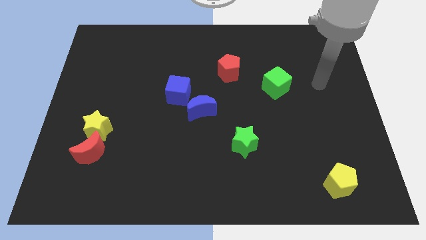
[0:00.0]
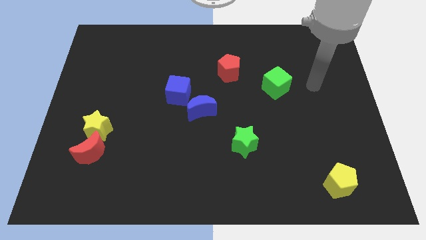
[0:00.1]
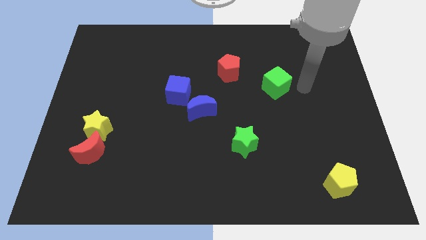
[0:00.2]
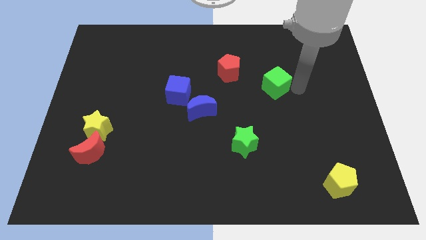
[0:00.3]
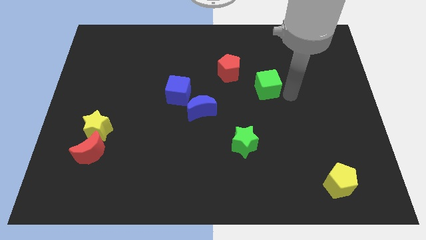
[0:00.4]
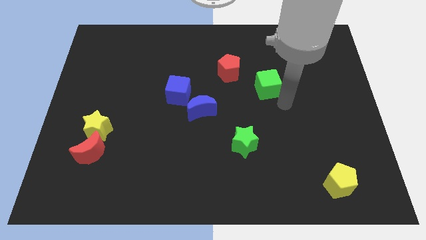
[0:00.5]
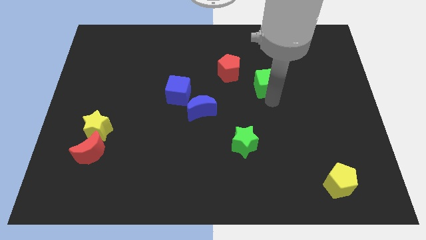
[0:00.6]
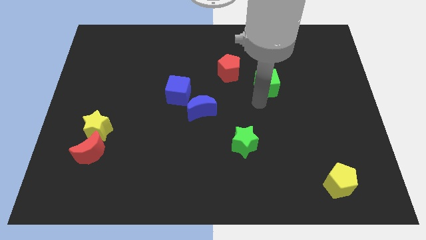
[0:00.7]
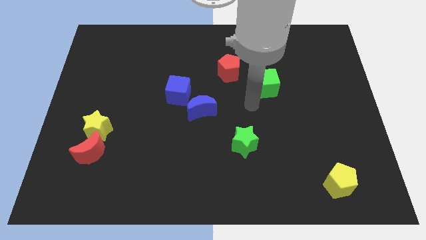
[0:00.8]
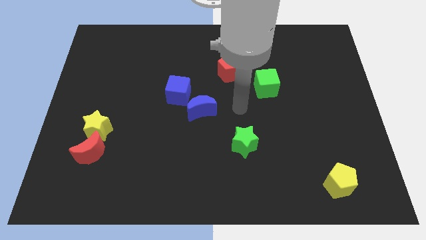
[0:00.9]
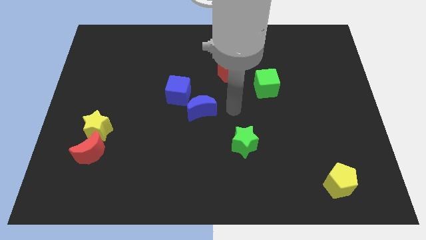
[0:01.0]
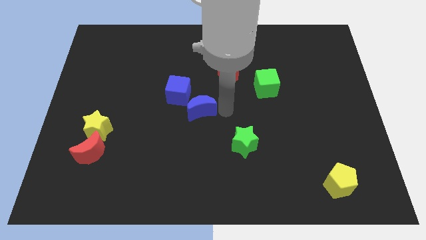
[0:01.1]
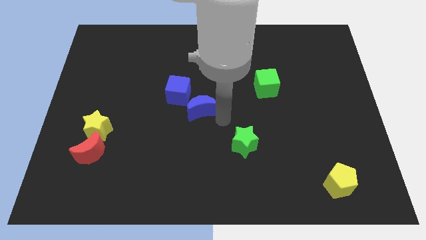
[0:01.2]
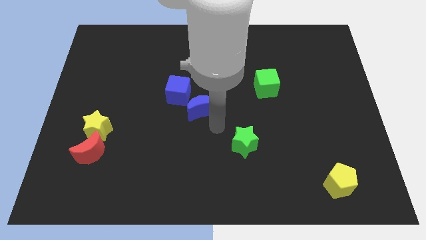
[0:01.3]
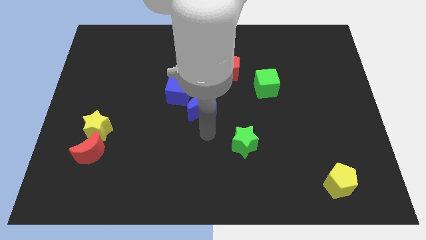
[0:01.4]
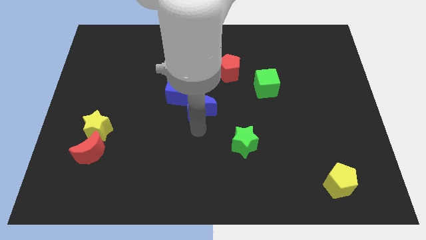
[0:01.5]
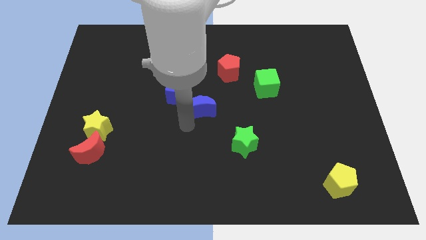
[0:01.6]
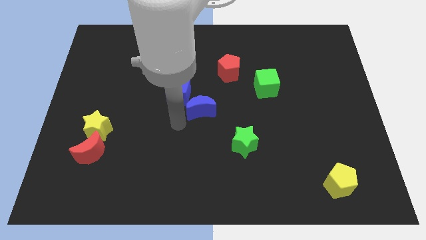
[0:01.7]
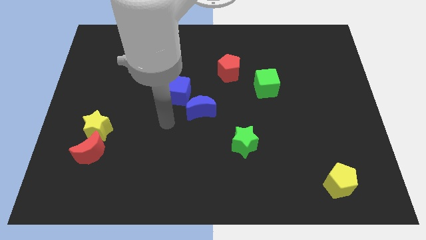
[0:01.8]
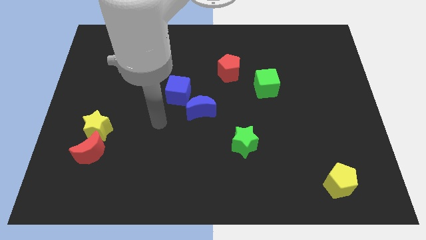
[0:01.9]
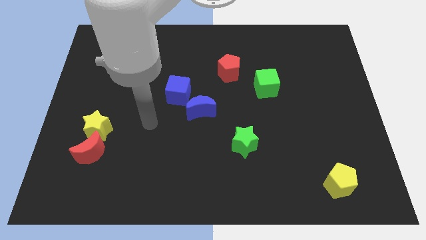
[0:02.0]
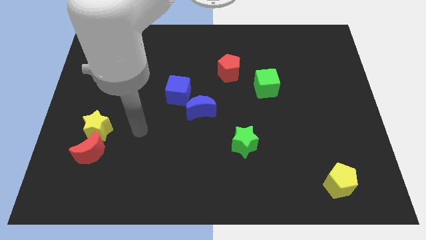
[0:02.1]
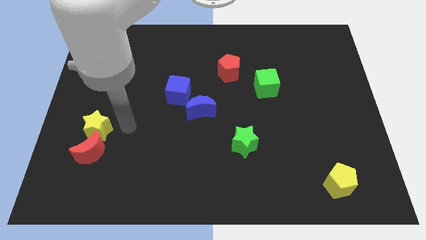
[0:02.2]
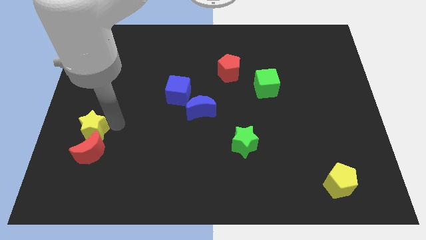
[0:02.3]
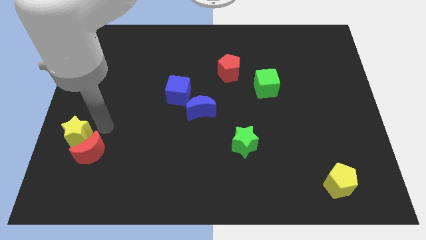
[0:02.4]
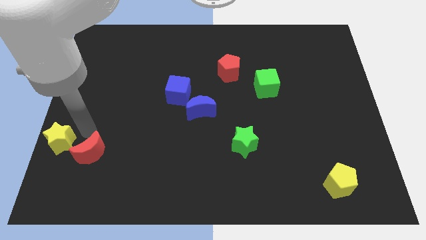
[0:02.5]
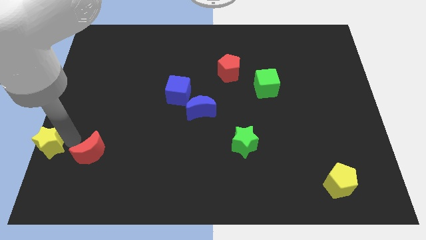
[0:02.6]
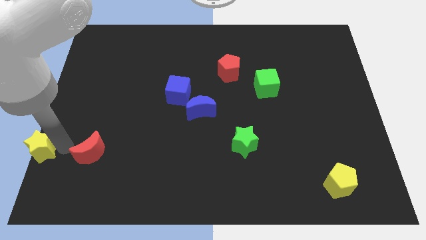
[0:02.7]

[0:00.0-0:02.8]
pull the red moon apart from the yellow star

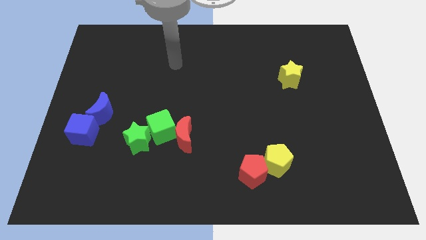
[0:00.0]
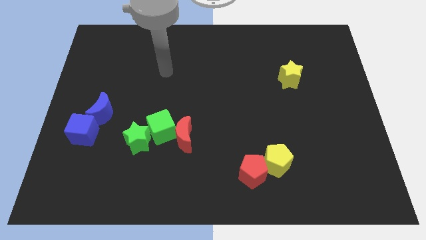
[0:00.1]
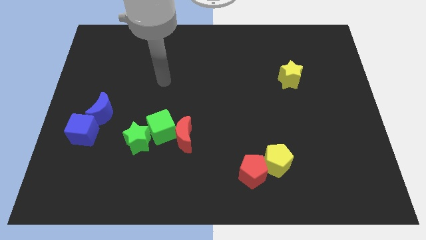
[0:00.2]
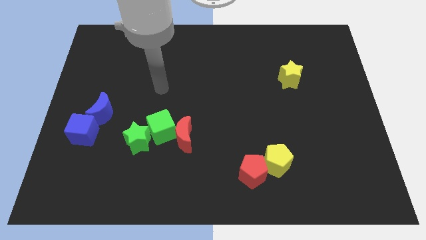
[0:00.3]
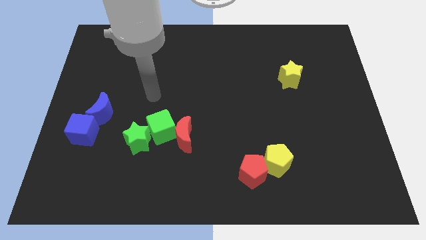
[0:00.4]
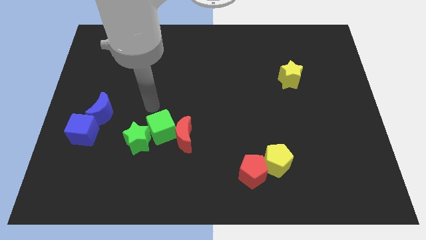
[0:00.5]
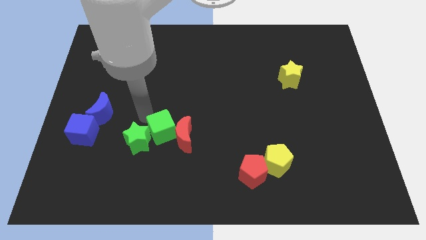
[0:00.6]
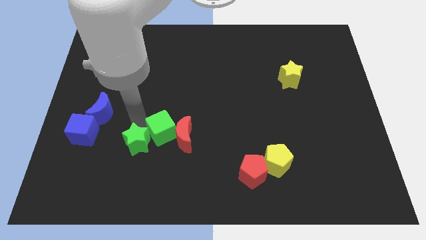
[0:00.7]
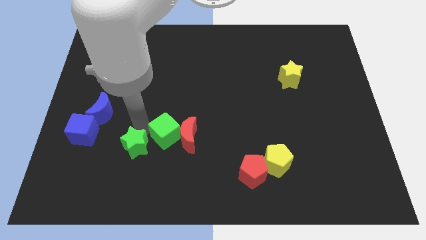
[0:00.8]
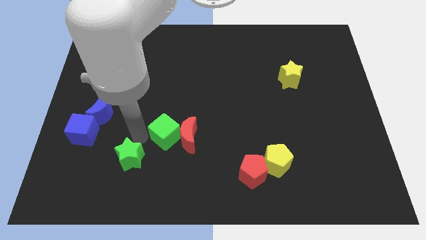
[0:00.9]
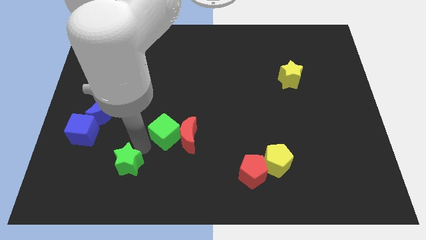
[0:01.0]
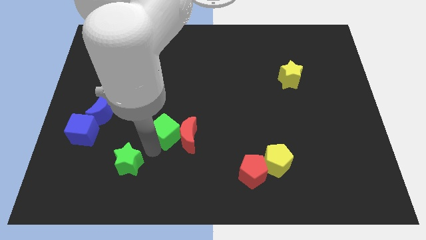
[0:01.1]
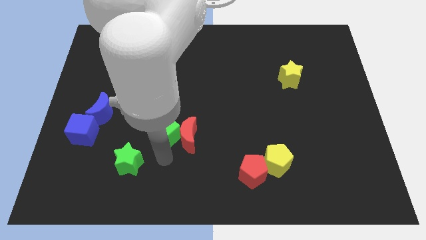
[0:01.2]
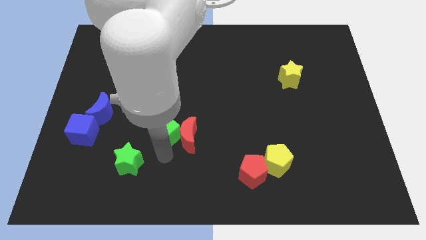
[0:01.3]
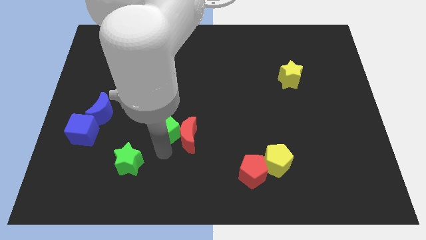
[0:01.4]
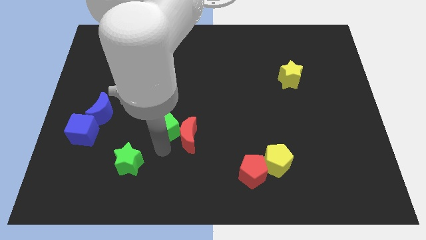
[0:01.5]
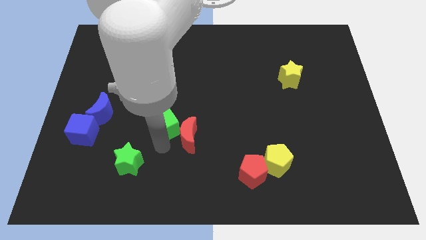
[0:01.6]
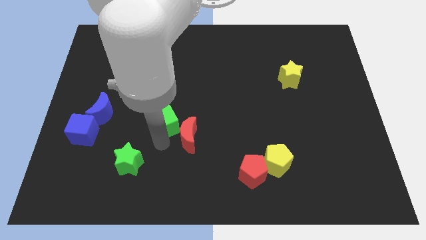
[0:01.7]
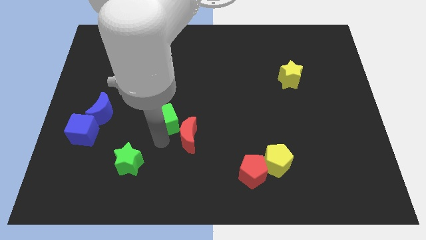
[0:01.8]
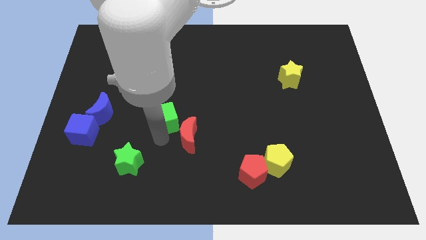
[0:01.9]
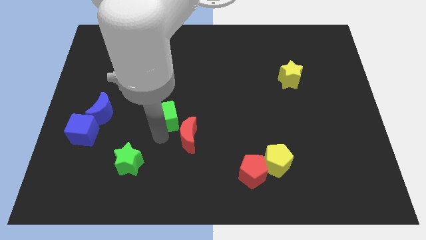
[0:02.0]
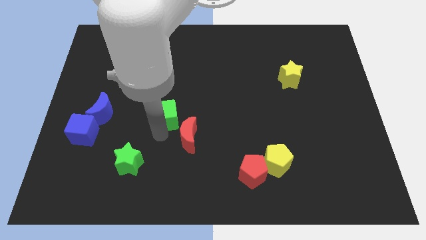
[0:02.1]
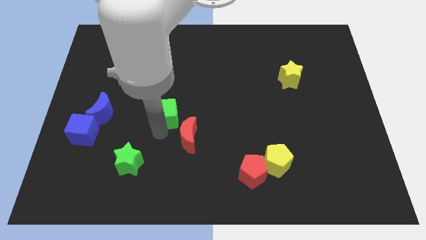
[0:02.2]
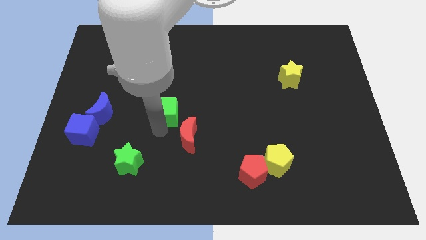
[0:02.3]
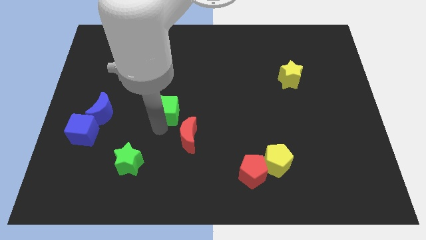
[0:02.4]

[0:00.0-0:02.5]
move the green cube away from the red moon and green star

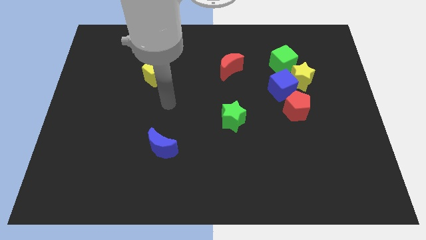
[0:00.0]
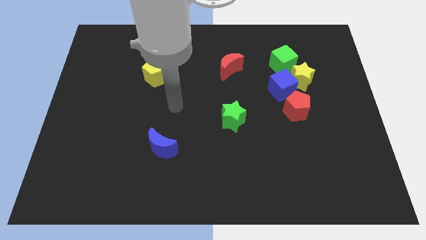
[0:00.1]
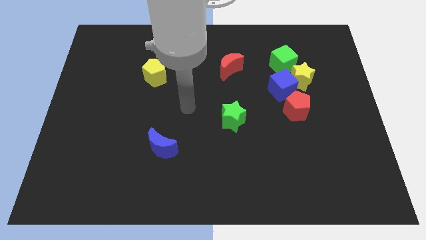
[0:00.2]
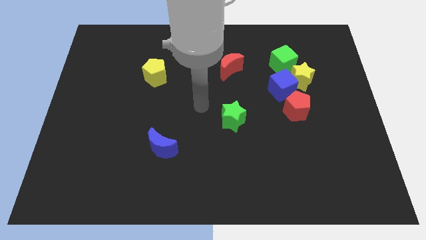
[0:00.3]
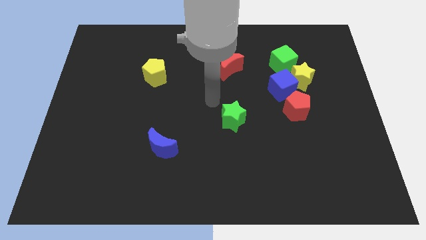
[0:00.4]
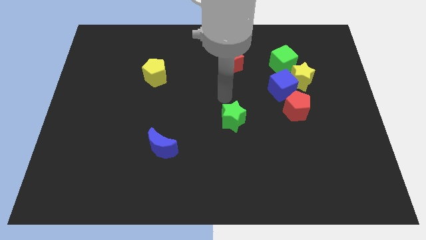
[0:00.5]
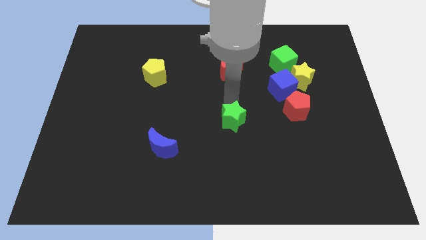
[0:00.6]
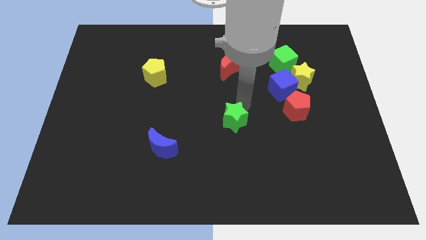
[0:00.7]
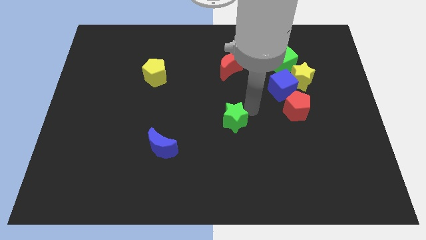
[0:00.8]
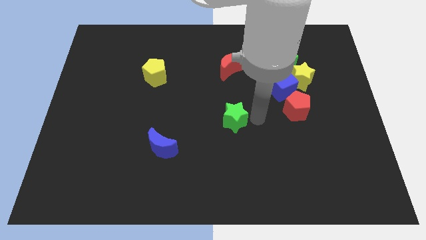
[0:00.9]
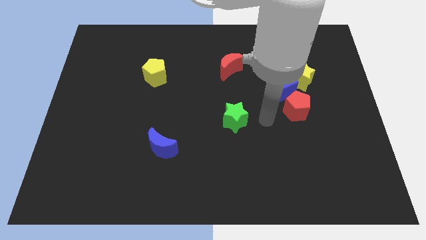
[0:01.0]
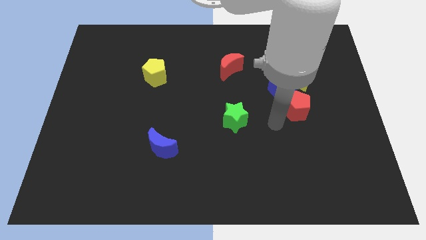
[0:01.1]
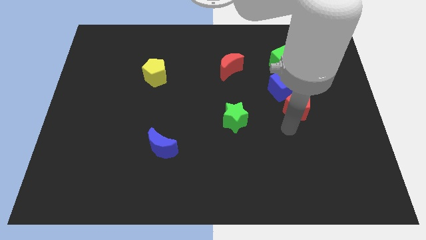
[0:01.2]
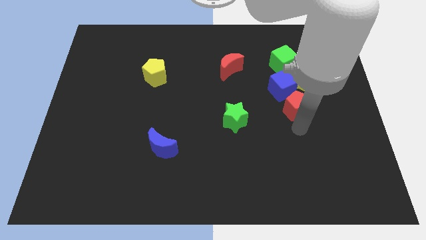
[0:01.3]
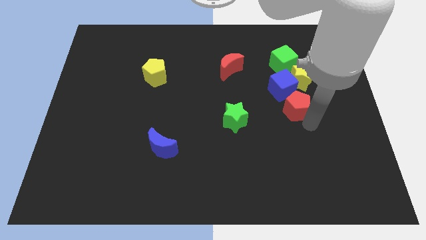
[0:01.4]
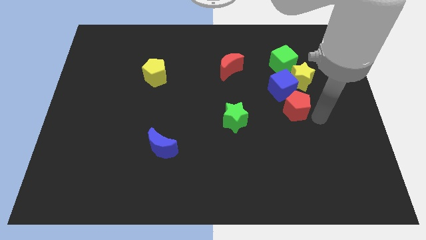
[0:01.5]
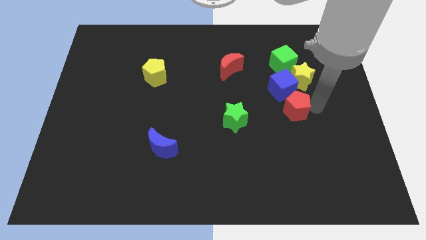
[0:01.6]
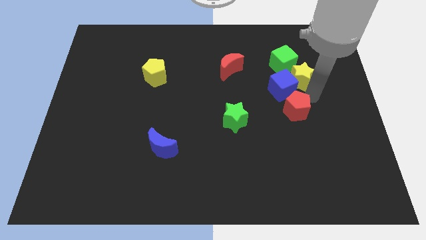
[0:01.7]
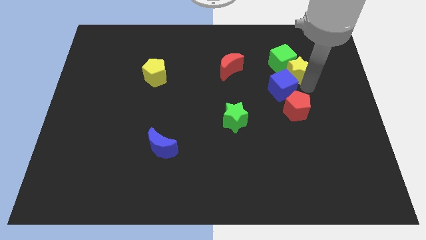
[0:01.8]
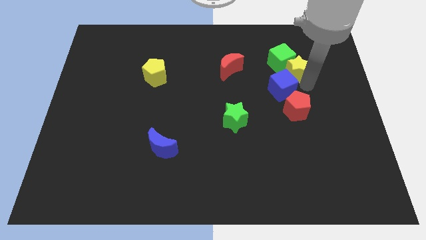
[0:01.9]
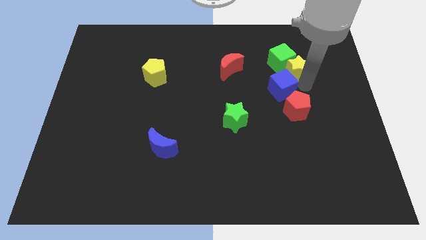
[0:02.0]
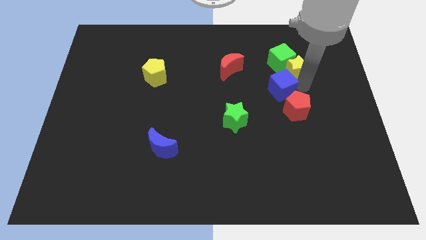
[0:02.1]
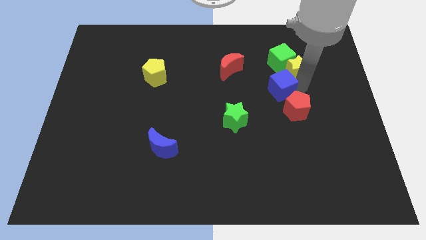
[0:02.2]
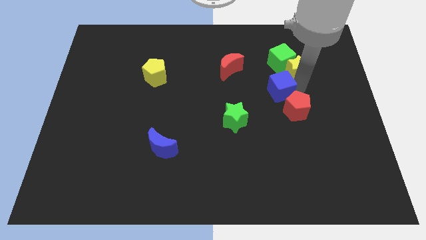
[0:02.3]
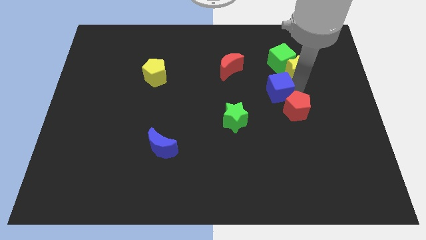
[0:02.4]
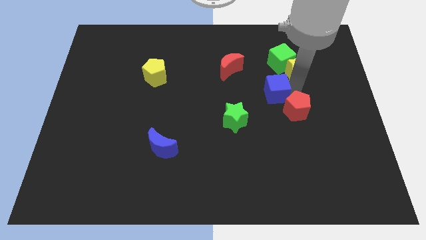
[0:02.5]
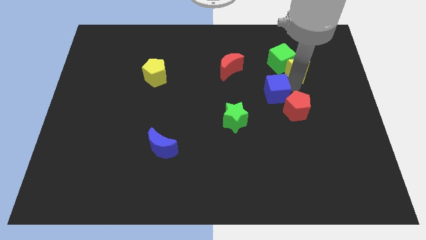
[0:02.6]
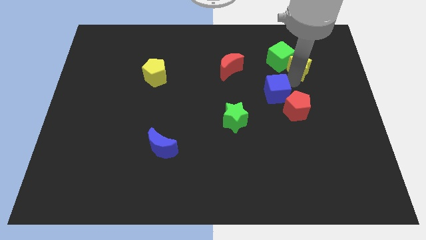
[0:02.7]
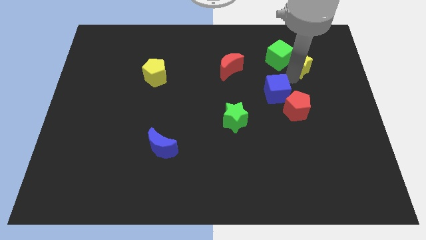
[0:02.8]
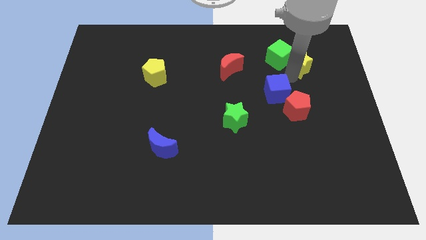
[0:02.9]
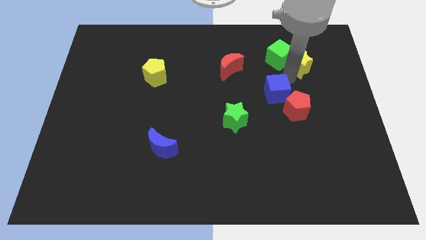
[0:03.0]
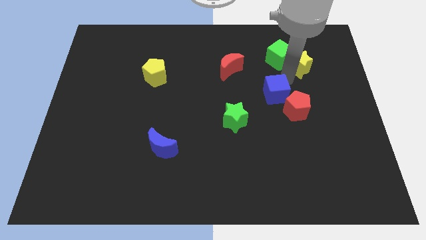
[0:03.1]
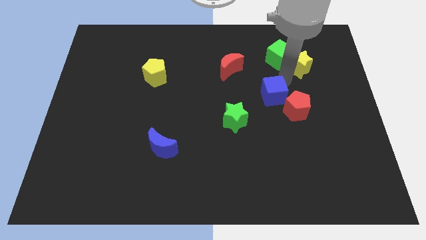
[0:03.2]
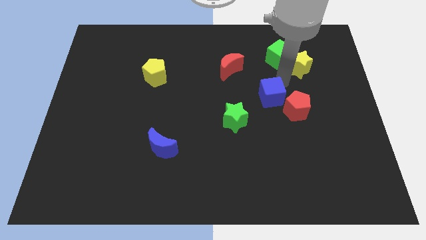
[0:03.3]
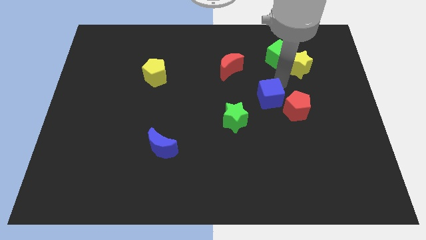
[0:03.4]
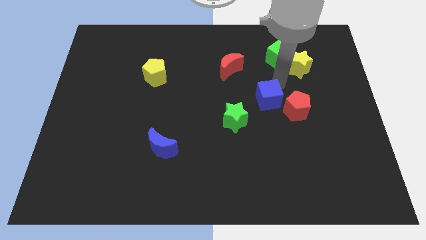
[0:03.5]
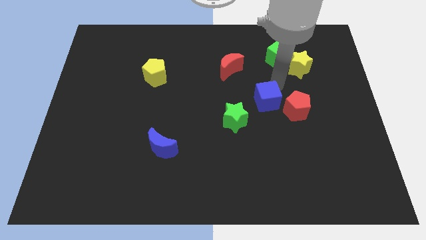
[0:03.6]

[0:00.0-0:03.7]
pull the blue cube apart from the group of blocks

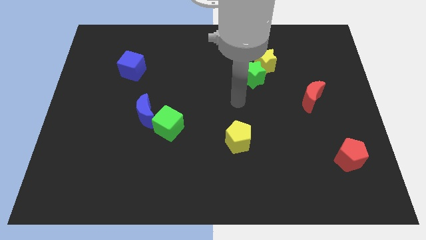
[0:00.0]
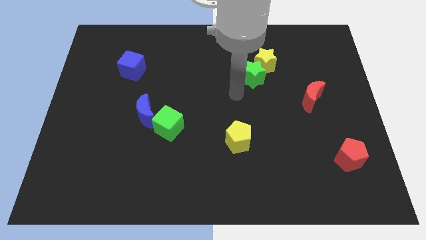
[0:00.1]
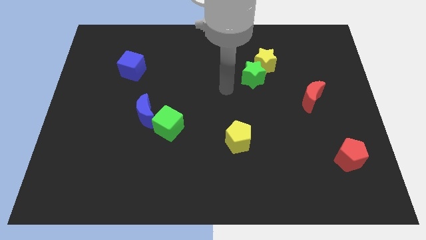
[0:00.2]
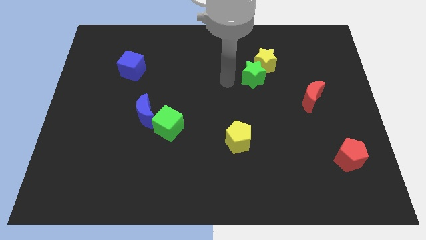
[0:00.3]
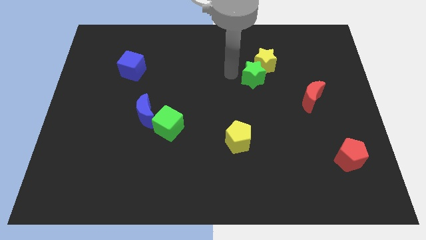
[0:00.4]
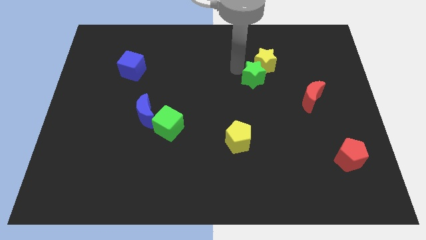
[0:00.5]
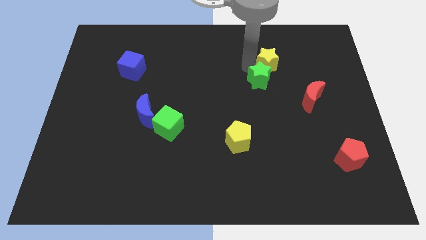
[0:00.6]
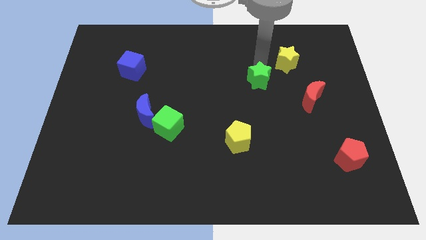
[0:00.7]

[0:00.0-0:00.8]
move the green star away from the yellow star
